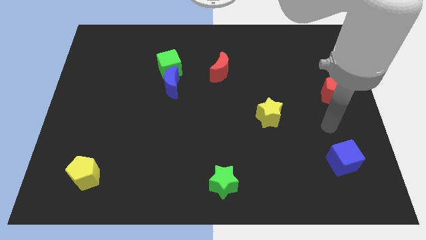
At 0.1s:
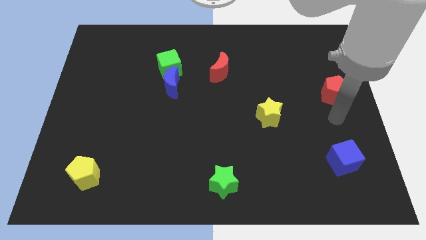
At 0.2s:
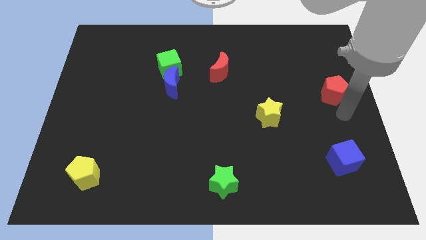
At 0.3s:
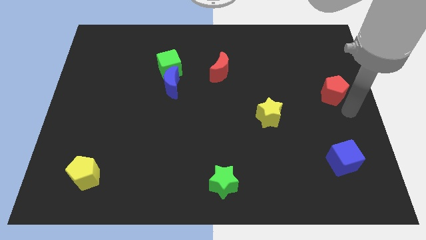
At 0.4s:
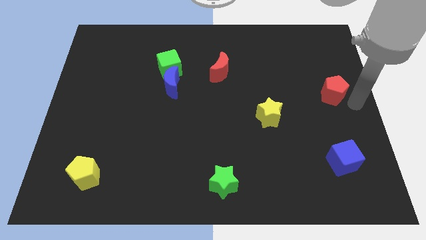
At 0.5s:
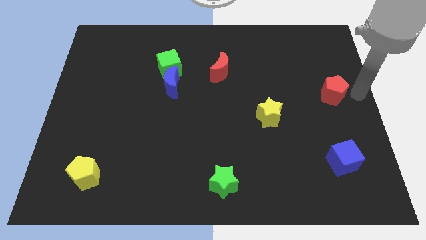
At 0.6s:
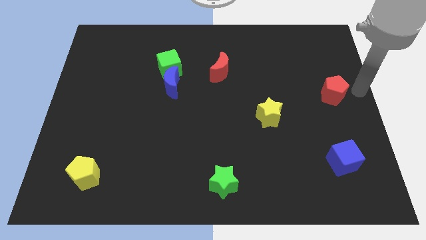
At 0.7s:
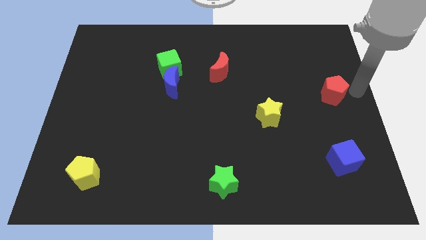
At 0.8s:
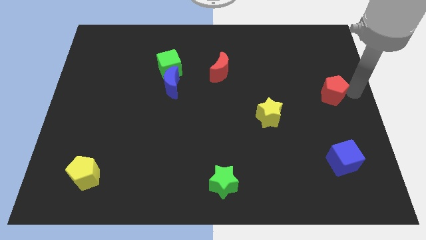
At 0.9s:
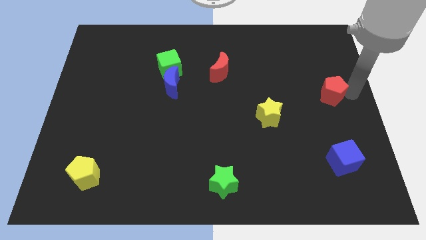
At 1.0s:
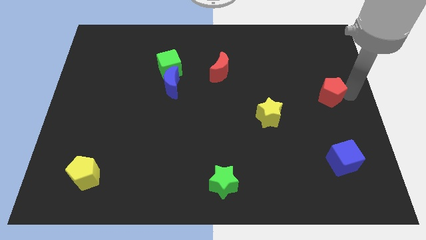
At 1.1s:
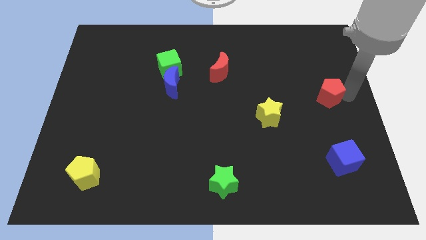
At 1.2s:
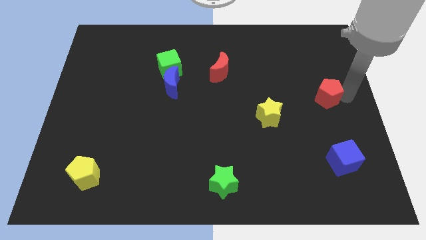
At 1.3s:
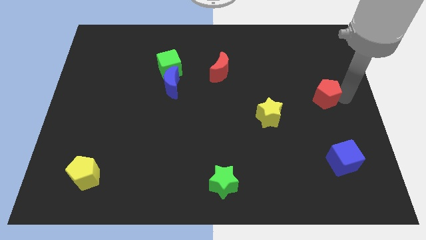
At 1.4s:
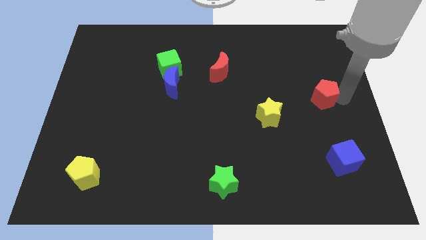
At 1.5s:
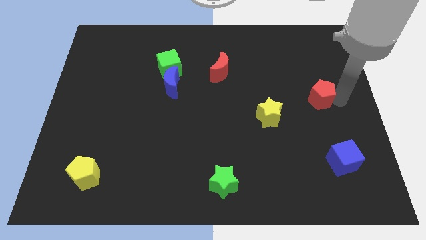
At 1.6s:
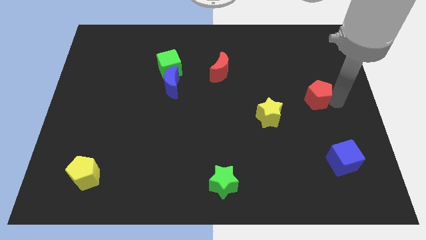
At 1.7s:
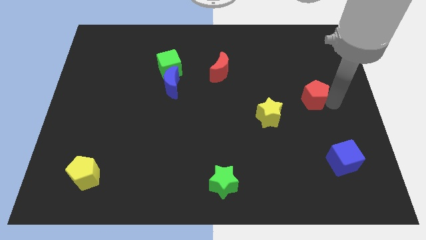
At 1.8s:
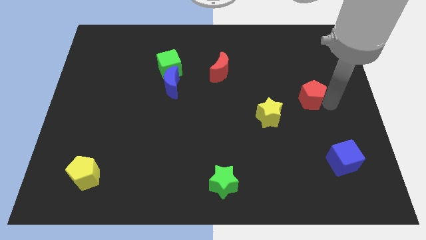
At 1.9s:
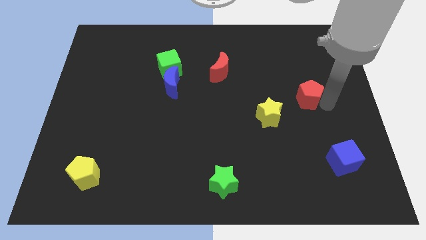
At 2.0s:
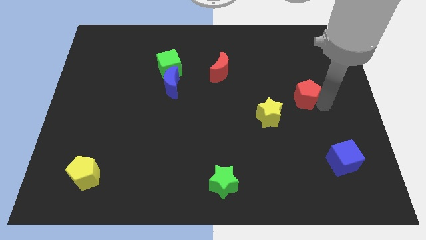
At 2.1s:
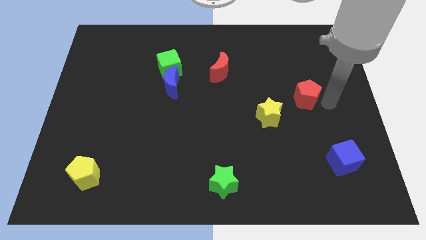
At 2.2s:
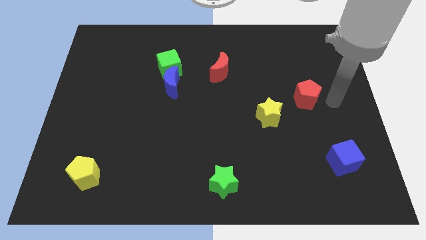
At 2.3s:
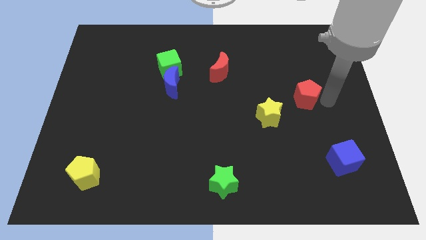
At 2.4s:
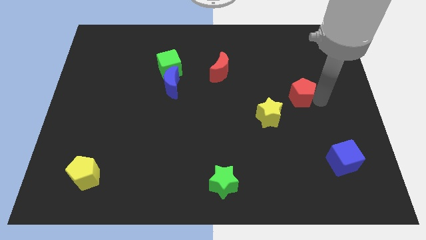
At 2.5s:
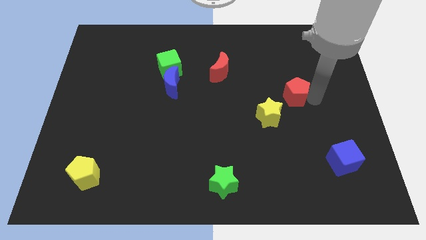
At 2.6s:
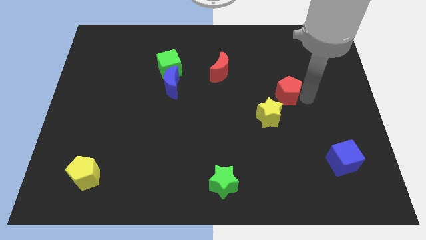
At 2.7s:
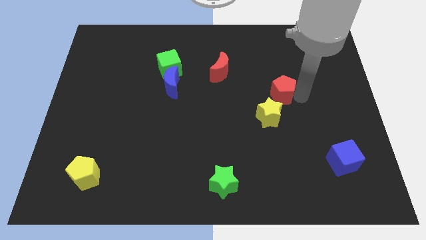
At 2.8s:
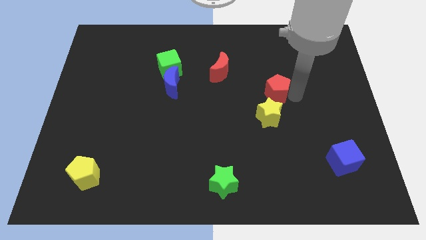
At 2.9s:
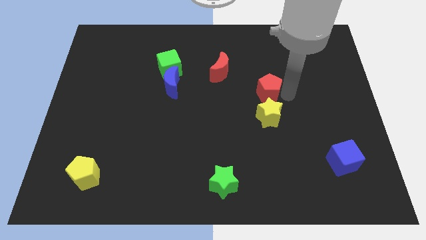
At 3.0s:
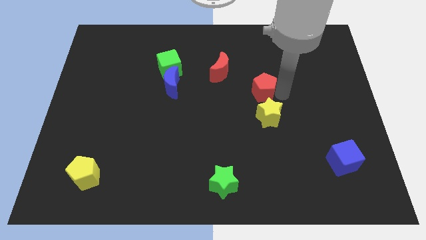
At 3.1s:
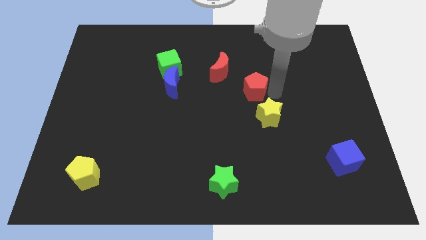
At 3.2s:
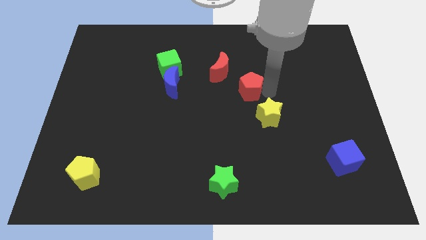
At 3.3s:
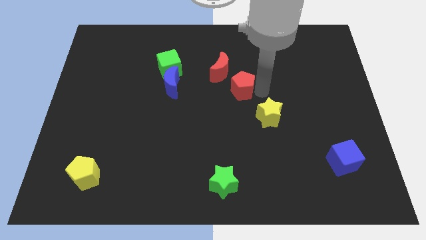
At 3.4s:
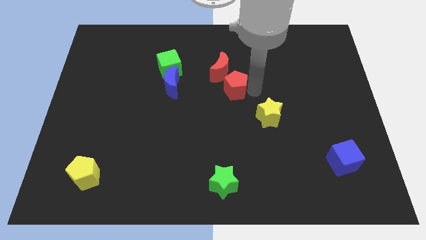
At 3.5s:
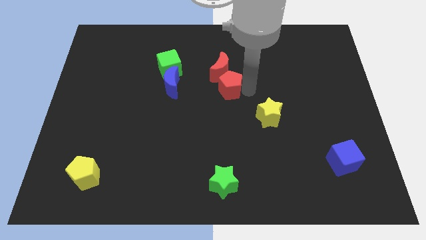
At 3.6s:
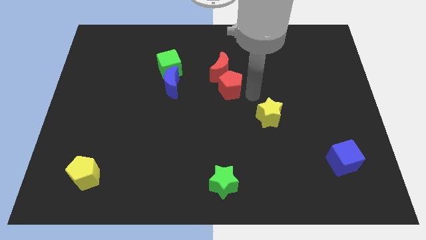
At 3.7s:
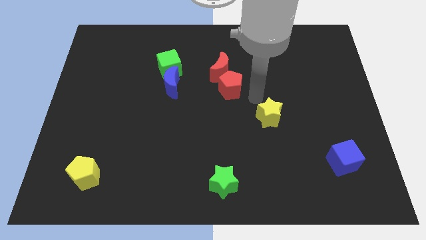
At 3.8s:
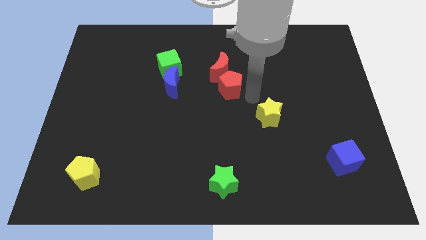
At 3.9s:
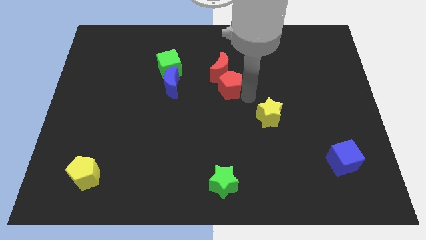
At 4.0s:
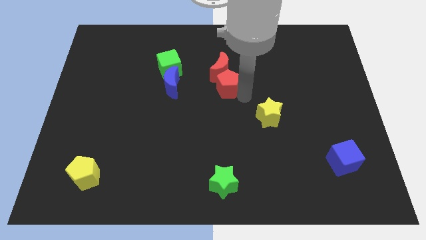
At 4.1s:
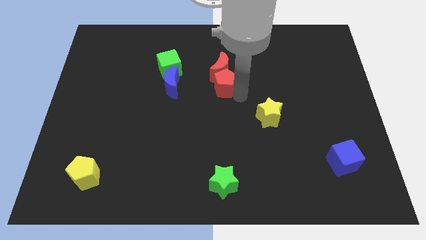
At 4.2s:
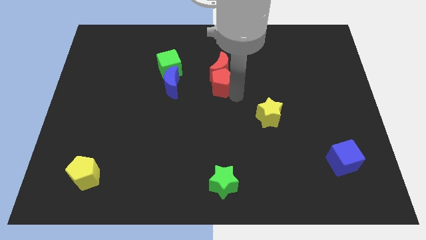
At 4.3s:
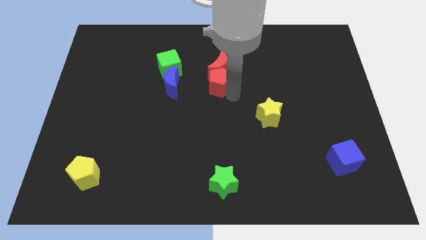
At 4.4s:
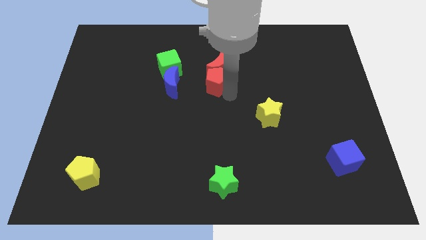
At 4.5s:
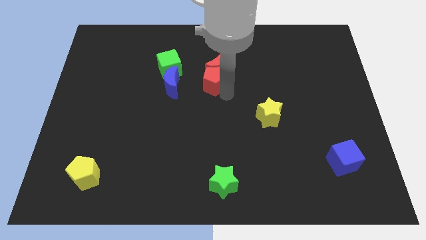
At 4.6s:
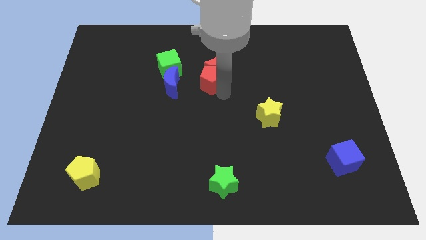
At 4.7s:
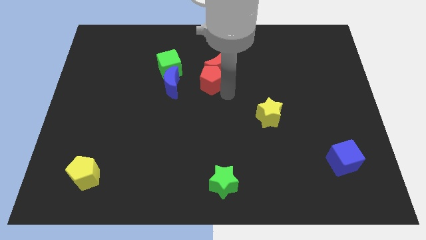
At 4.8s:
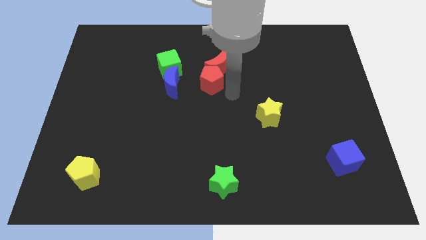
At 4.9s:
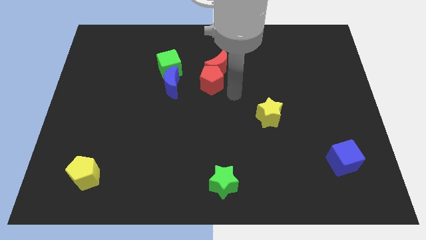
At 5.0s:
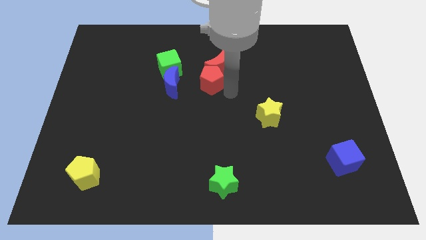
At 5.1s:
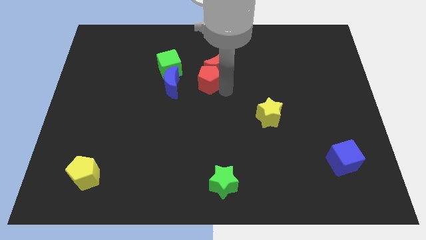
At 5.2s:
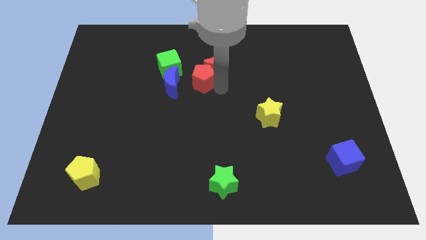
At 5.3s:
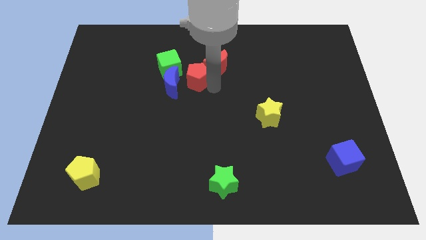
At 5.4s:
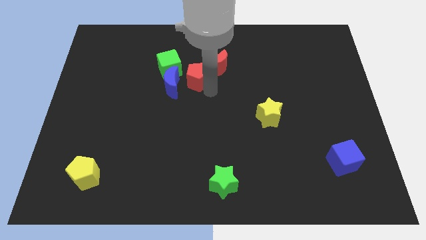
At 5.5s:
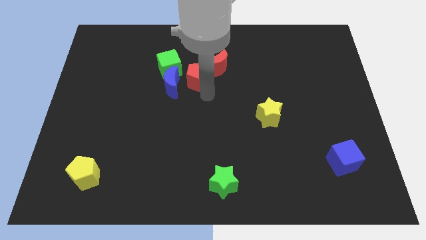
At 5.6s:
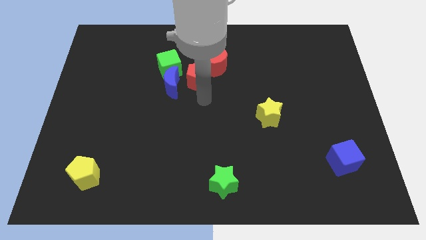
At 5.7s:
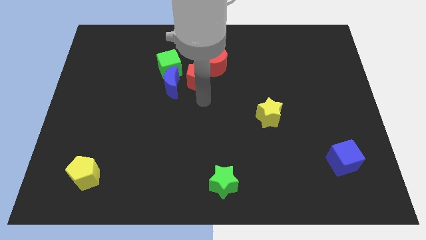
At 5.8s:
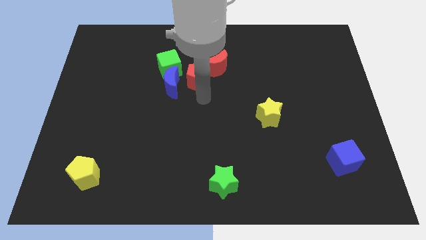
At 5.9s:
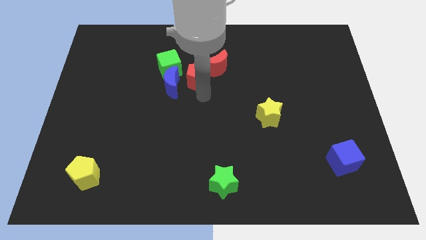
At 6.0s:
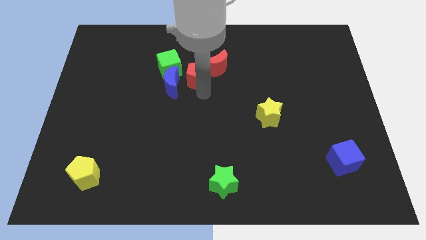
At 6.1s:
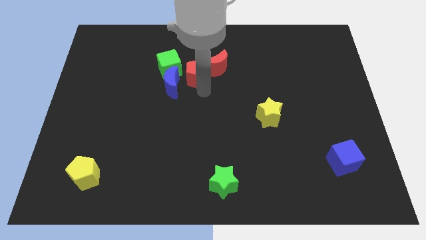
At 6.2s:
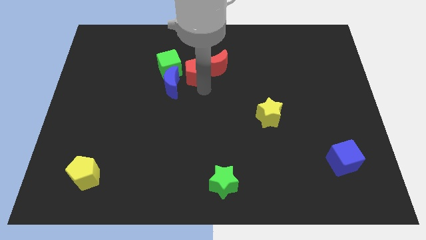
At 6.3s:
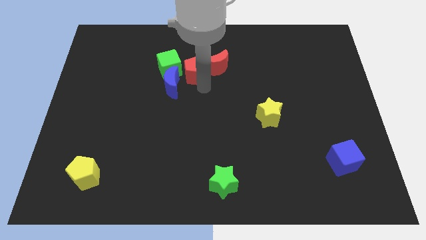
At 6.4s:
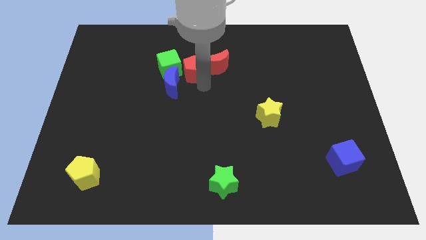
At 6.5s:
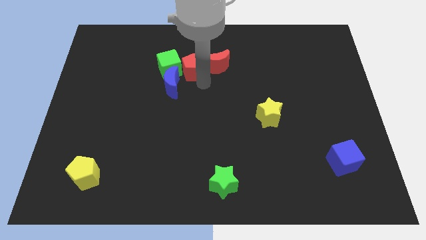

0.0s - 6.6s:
slide the red pentagon next to the green cube
